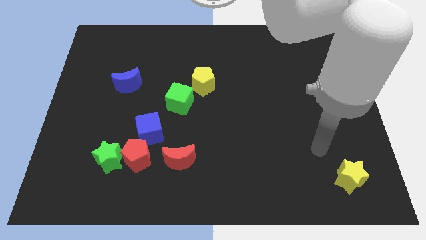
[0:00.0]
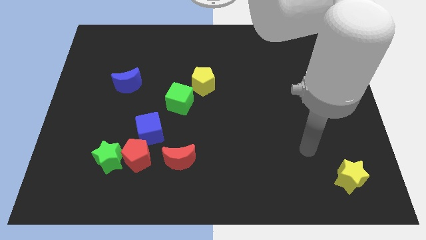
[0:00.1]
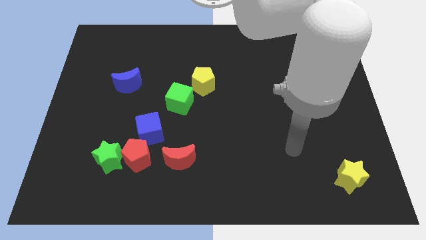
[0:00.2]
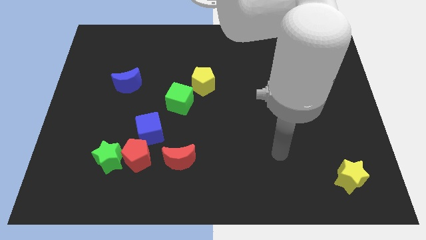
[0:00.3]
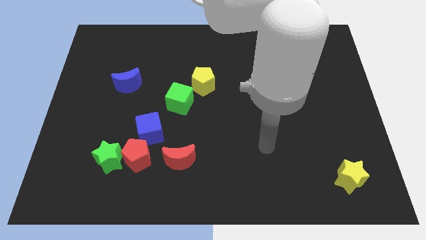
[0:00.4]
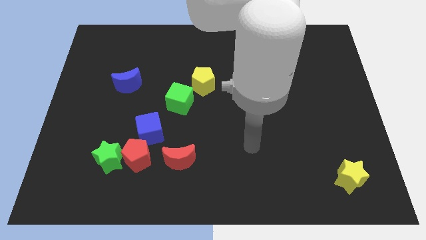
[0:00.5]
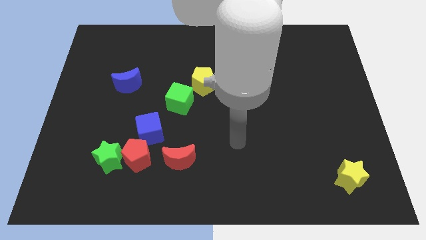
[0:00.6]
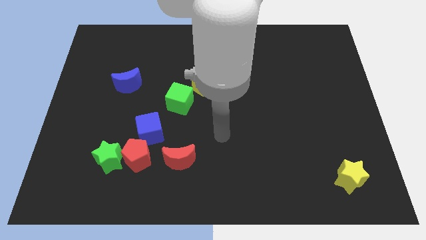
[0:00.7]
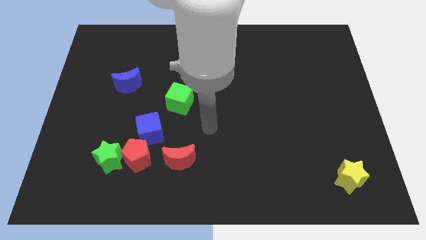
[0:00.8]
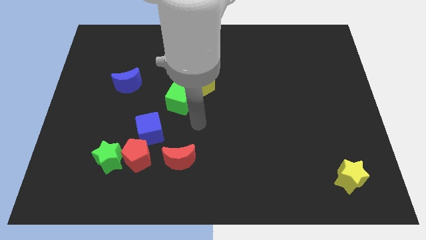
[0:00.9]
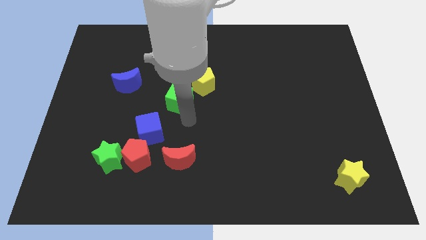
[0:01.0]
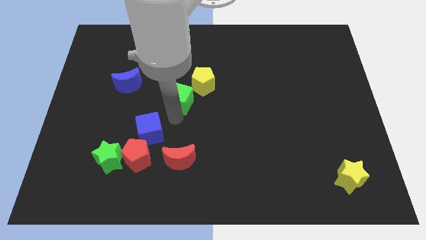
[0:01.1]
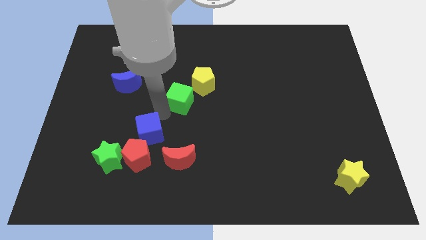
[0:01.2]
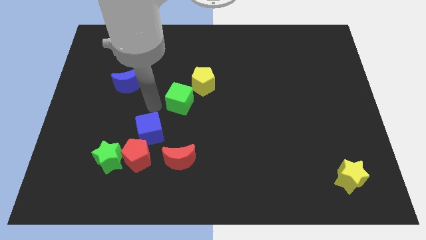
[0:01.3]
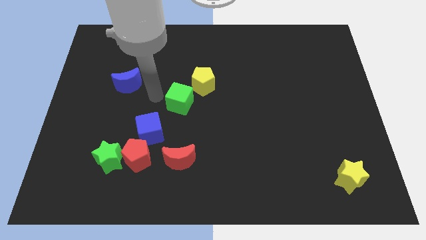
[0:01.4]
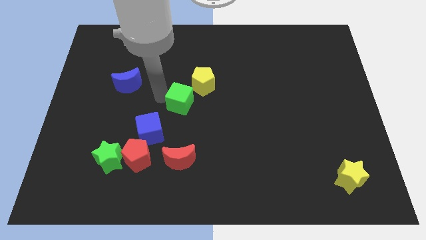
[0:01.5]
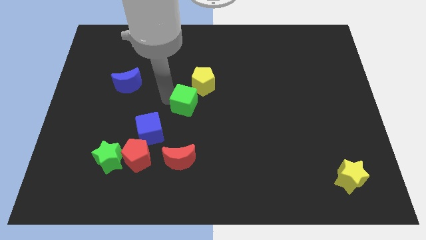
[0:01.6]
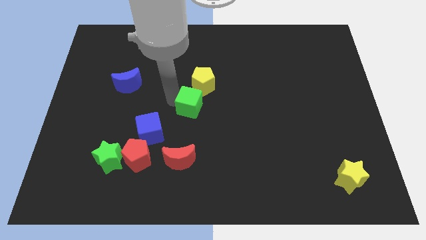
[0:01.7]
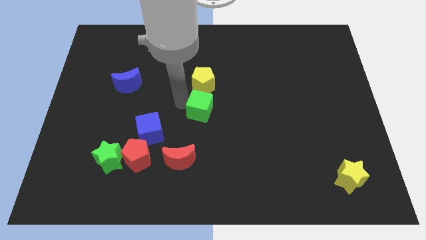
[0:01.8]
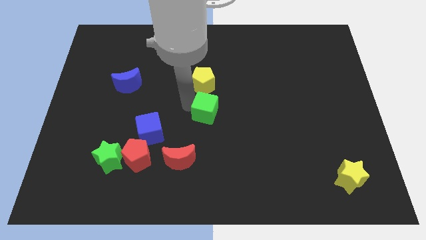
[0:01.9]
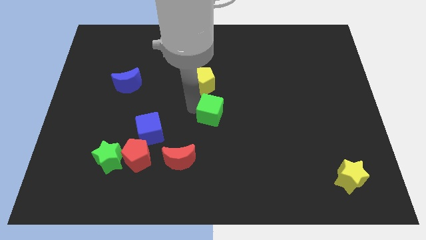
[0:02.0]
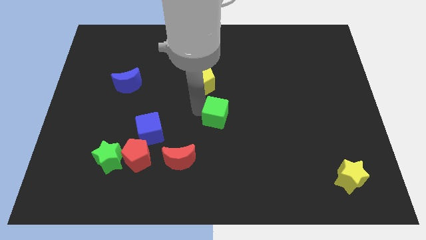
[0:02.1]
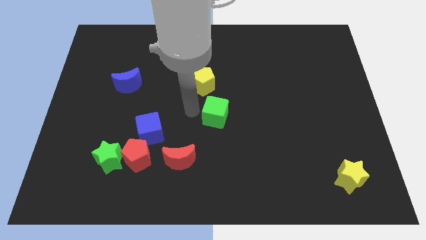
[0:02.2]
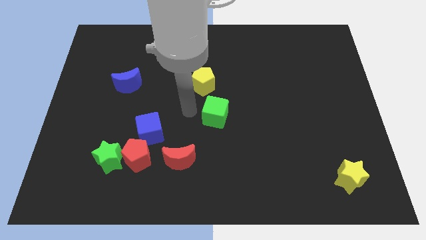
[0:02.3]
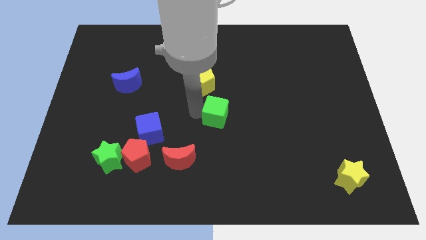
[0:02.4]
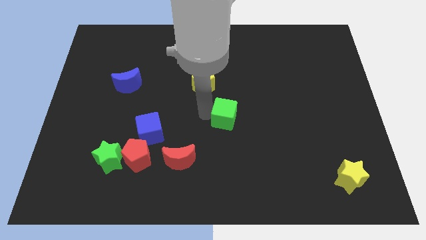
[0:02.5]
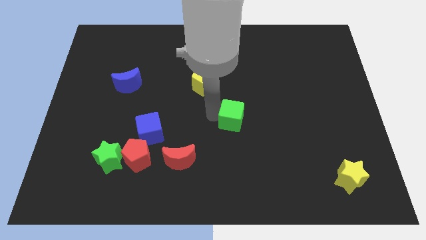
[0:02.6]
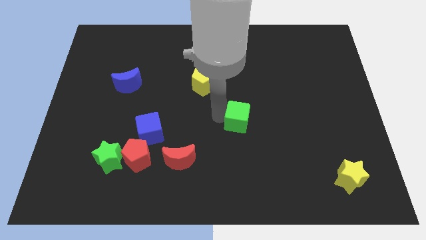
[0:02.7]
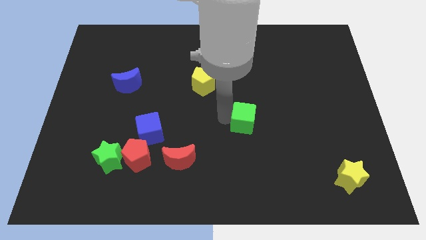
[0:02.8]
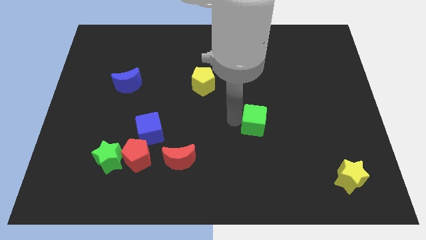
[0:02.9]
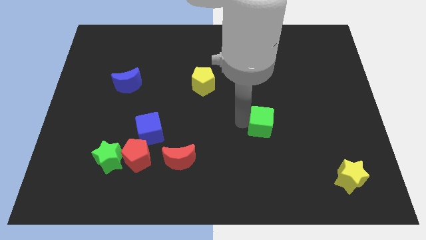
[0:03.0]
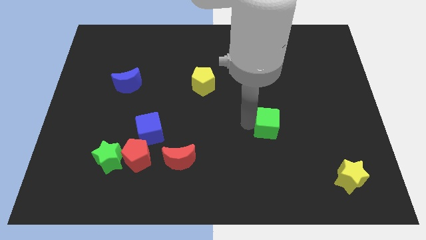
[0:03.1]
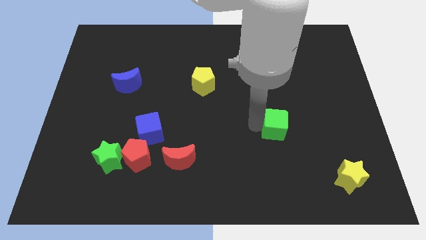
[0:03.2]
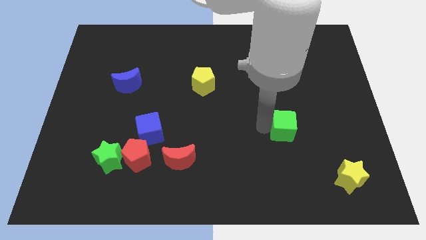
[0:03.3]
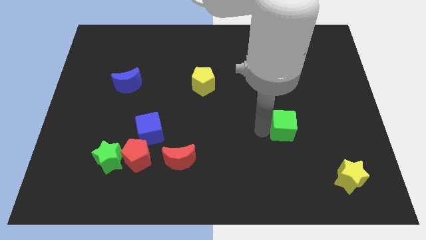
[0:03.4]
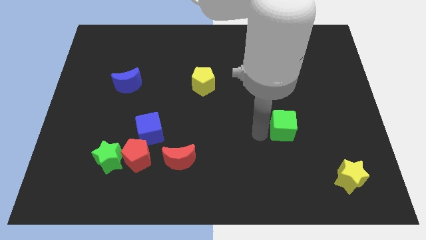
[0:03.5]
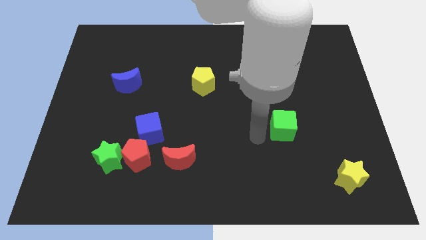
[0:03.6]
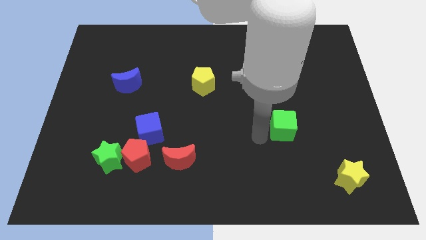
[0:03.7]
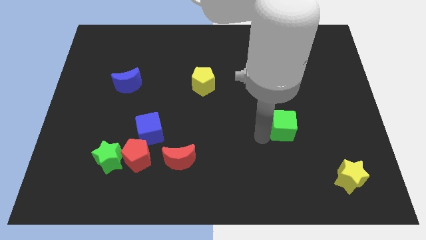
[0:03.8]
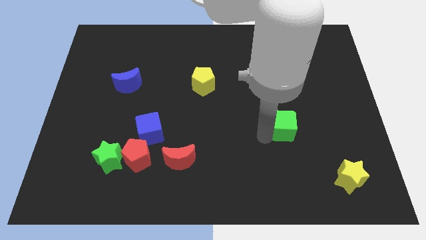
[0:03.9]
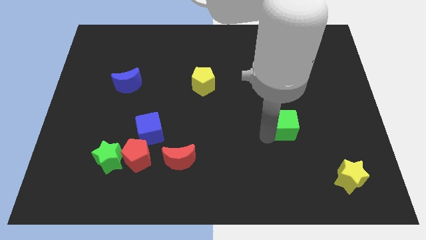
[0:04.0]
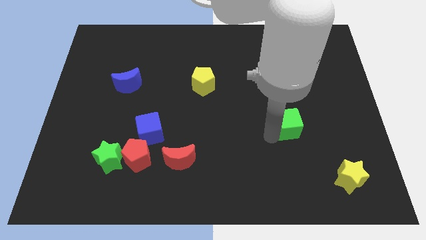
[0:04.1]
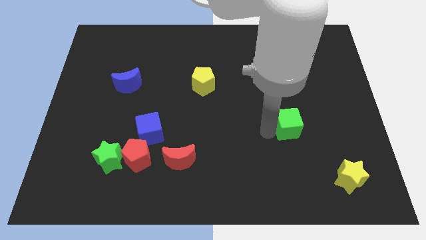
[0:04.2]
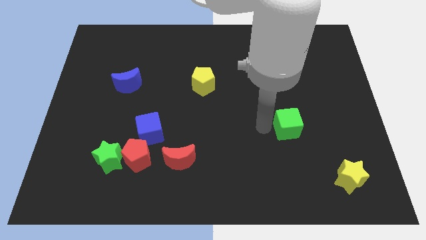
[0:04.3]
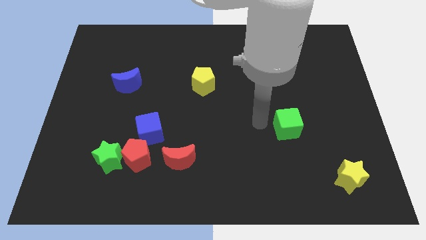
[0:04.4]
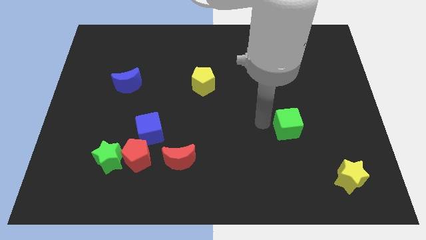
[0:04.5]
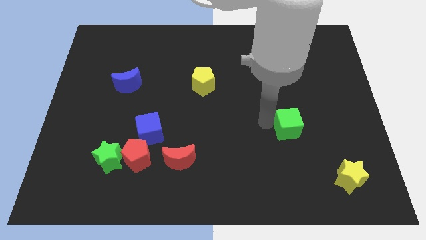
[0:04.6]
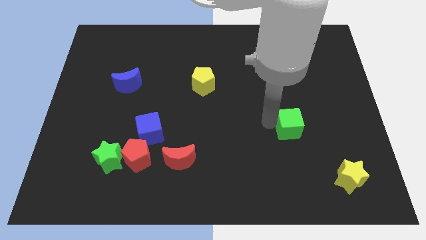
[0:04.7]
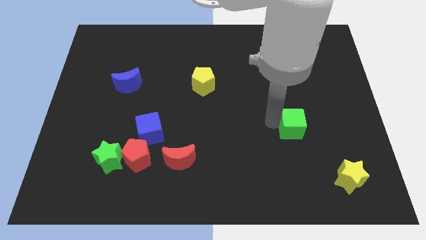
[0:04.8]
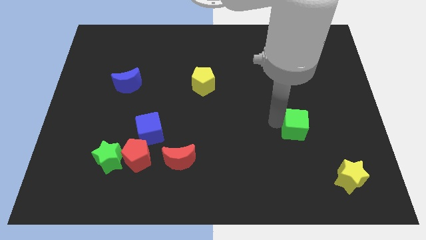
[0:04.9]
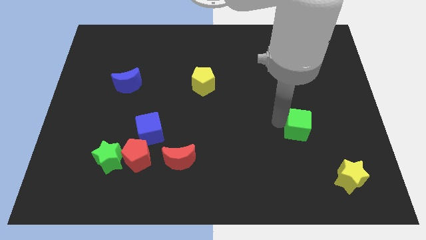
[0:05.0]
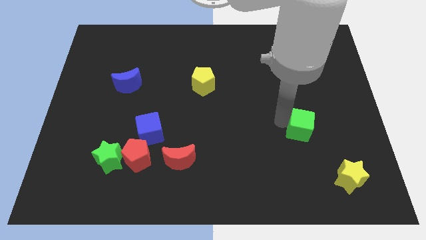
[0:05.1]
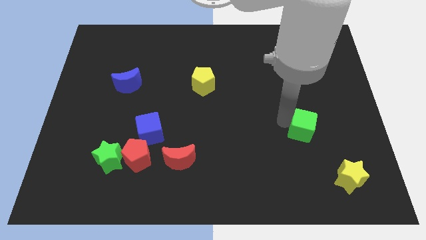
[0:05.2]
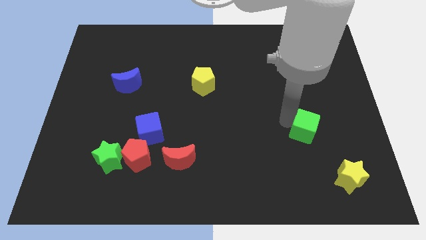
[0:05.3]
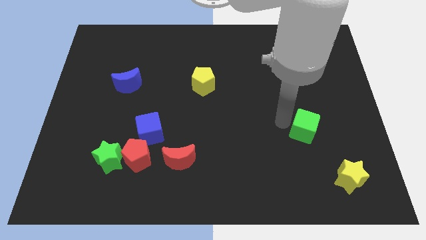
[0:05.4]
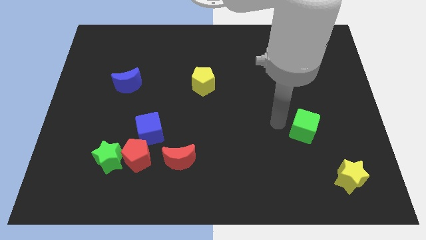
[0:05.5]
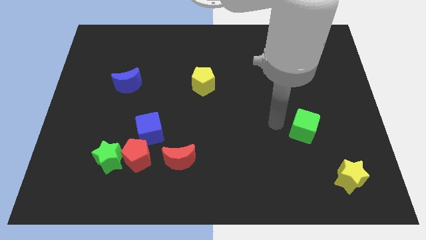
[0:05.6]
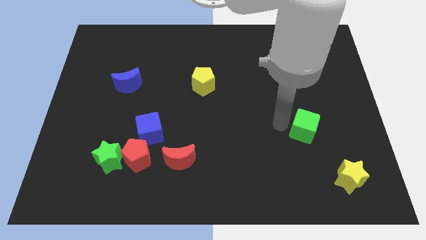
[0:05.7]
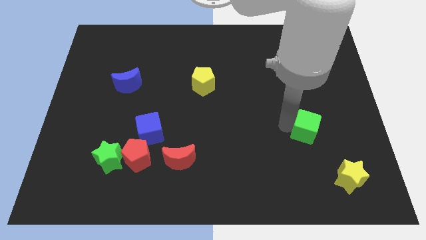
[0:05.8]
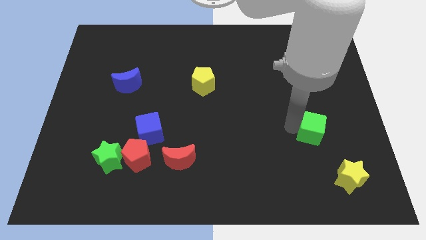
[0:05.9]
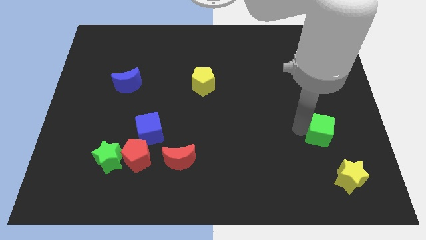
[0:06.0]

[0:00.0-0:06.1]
push the green cube above the yellow star

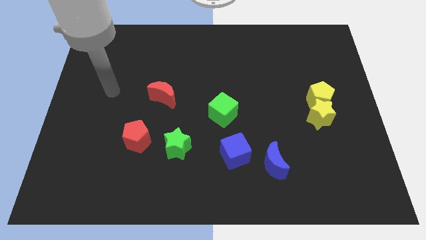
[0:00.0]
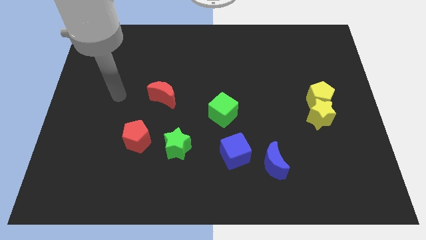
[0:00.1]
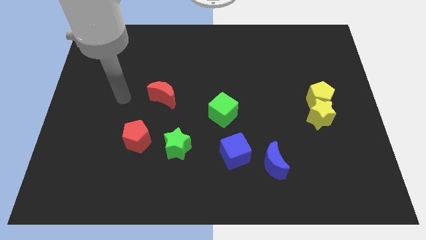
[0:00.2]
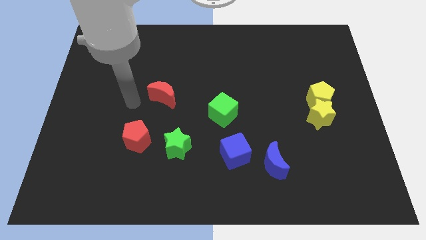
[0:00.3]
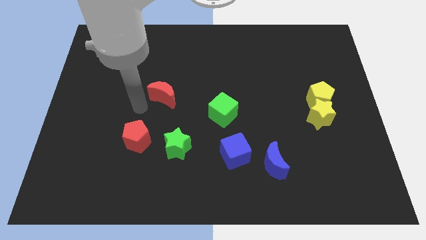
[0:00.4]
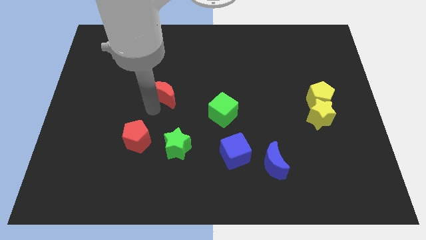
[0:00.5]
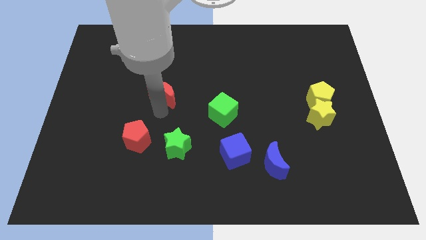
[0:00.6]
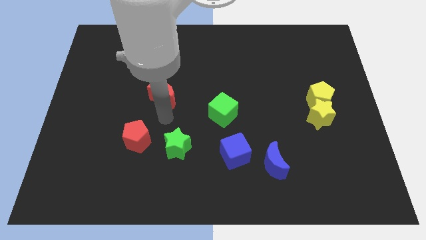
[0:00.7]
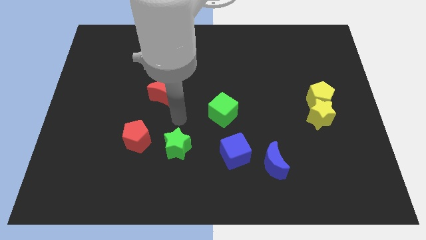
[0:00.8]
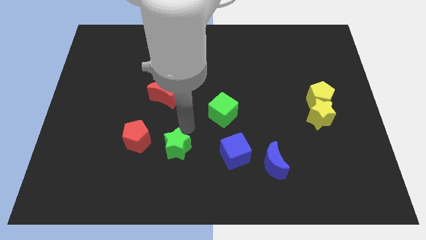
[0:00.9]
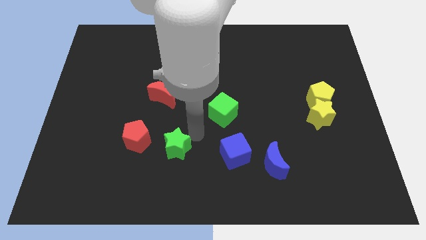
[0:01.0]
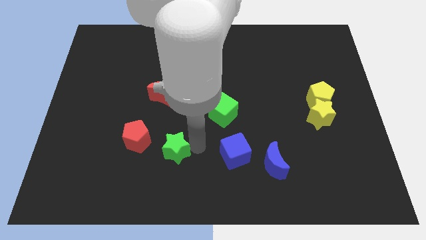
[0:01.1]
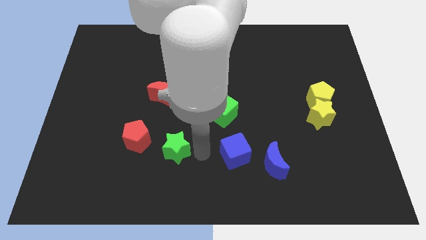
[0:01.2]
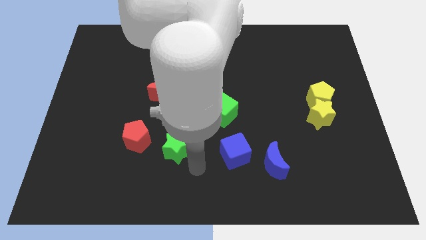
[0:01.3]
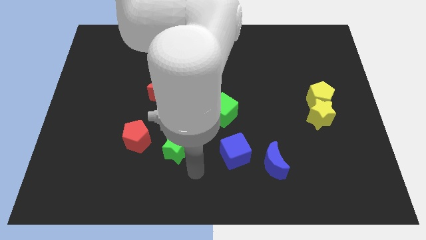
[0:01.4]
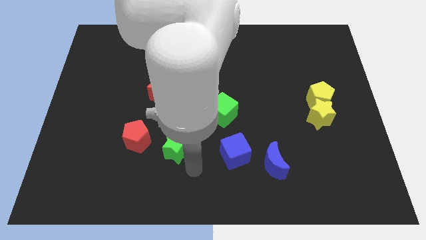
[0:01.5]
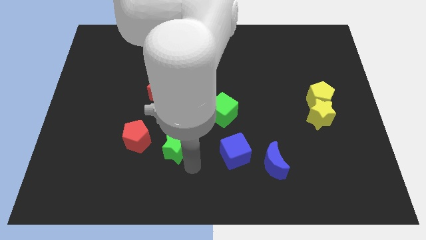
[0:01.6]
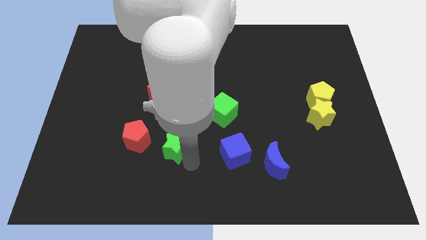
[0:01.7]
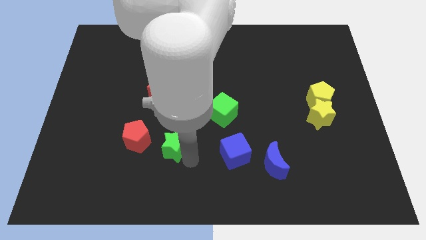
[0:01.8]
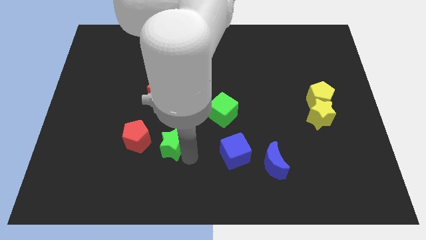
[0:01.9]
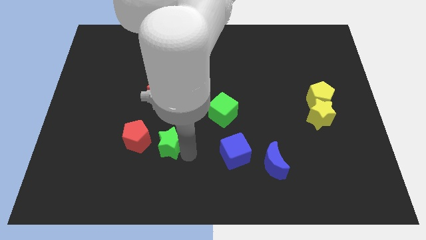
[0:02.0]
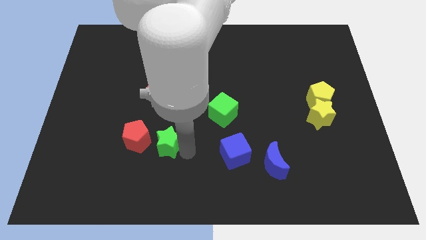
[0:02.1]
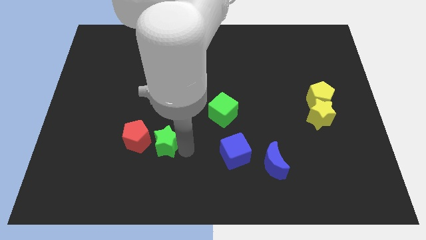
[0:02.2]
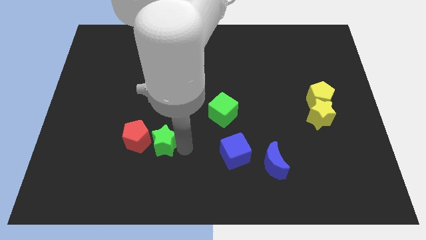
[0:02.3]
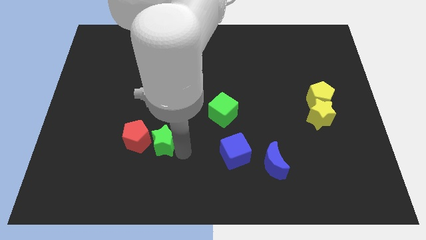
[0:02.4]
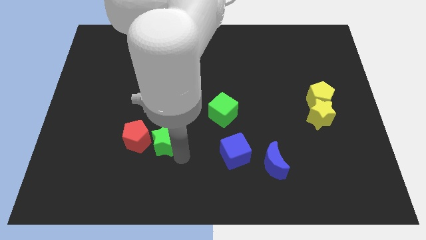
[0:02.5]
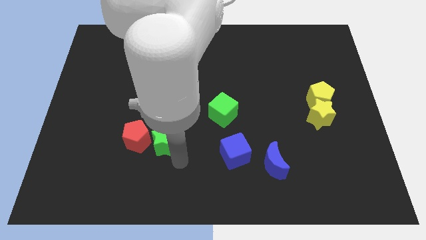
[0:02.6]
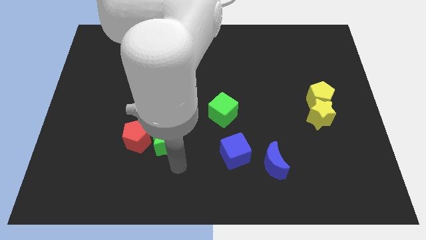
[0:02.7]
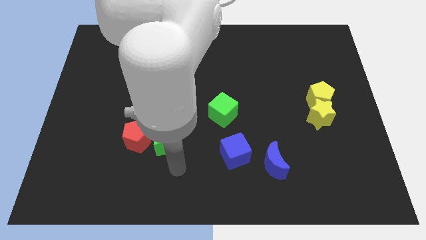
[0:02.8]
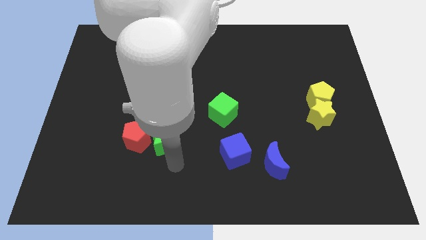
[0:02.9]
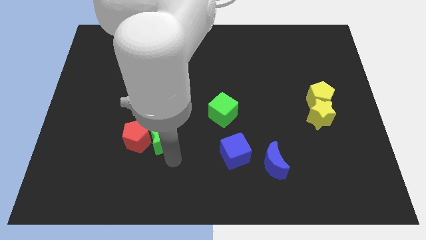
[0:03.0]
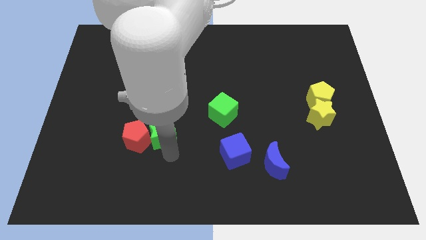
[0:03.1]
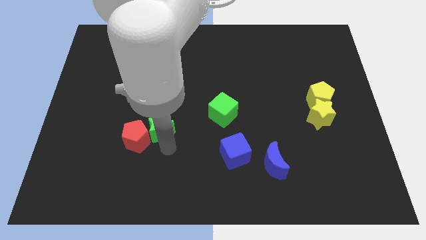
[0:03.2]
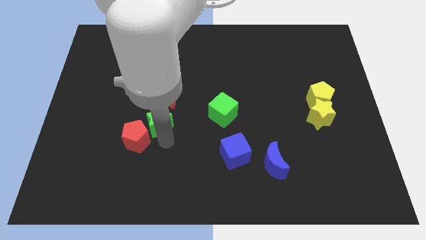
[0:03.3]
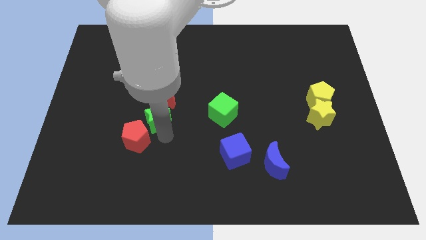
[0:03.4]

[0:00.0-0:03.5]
push the green star above the red pentagon
